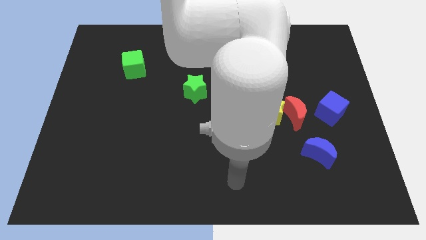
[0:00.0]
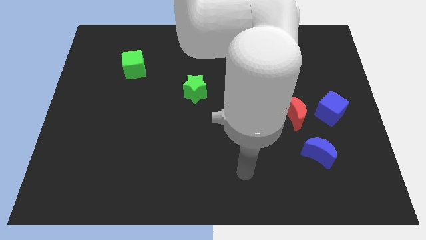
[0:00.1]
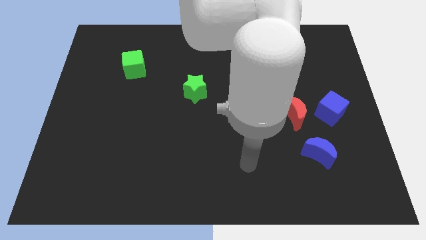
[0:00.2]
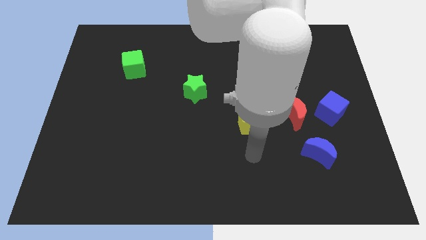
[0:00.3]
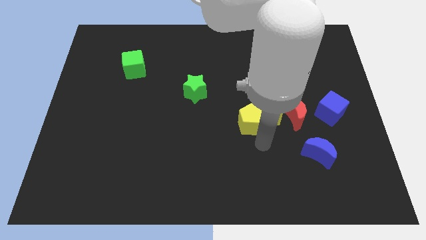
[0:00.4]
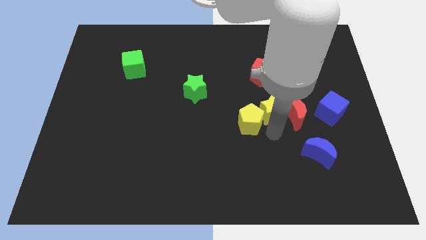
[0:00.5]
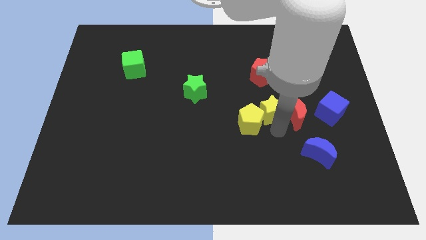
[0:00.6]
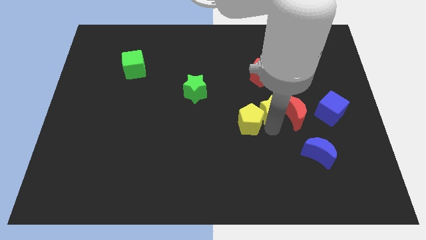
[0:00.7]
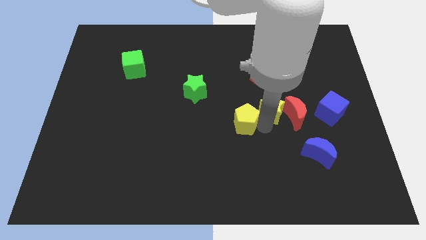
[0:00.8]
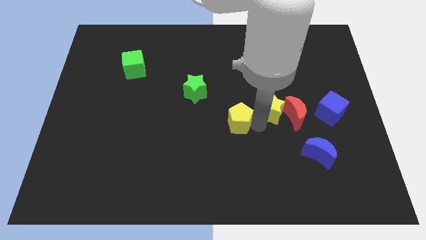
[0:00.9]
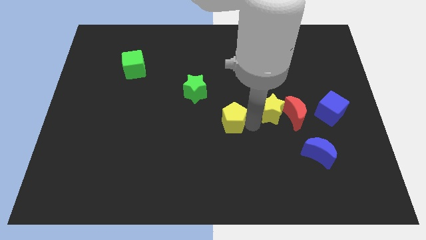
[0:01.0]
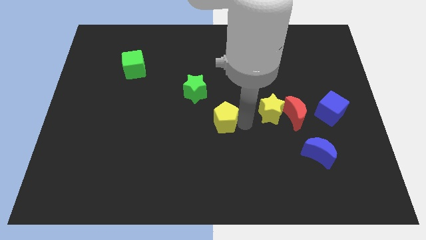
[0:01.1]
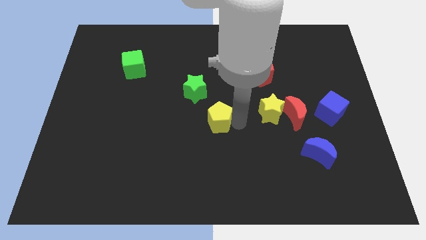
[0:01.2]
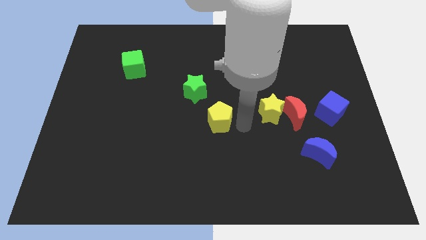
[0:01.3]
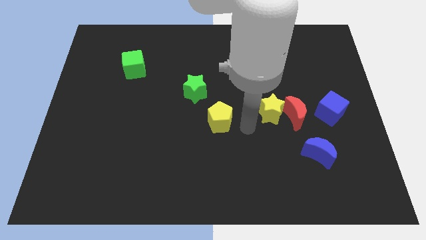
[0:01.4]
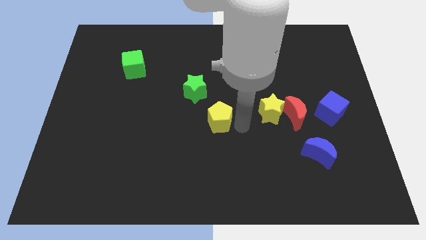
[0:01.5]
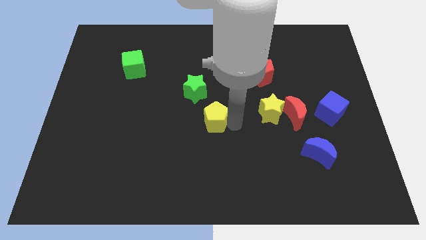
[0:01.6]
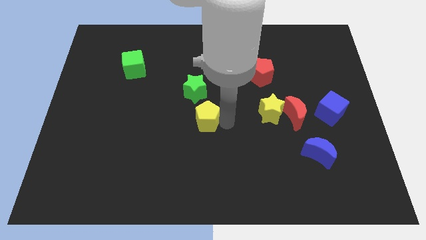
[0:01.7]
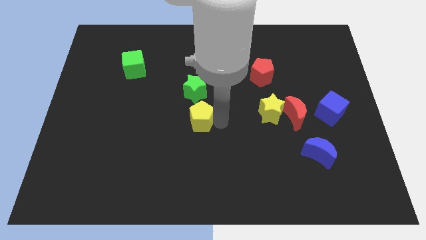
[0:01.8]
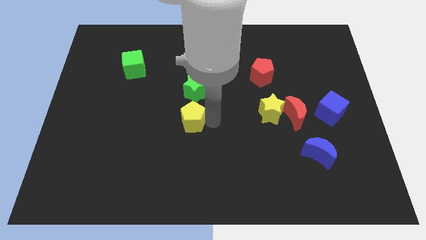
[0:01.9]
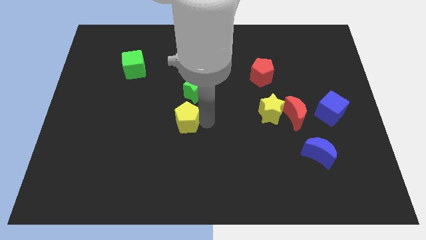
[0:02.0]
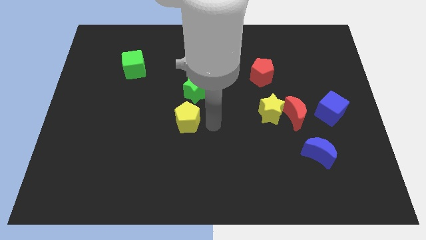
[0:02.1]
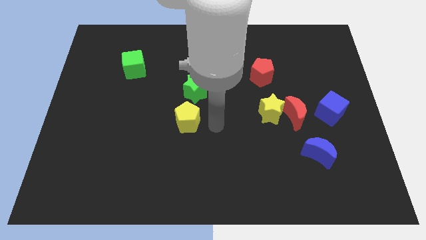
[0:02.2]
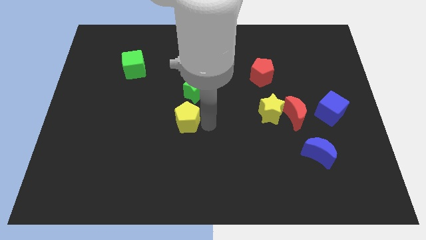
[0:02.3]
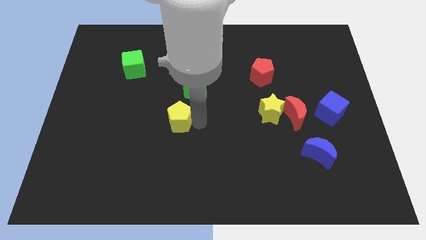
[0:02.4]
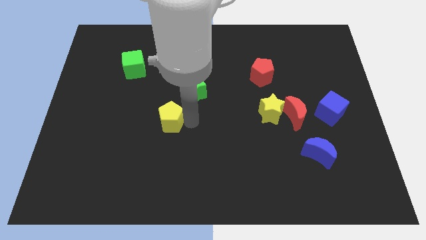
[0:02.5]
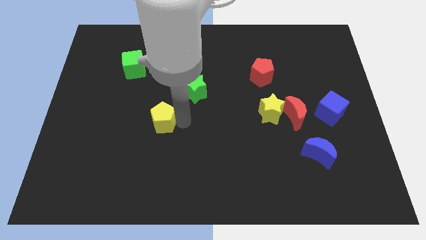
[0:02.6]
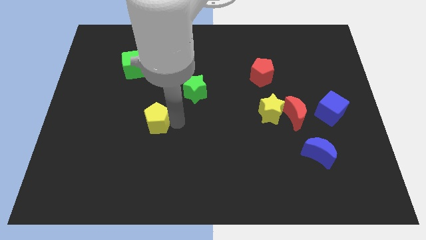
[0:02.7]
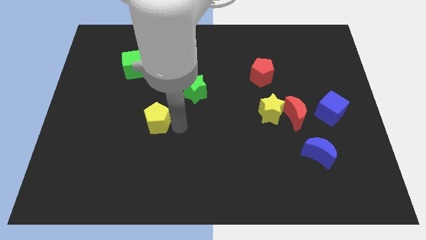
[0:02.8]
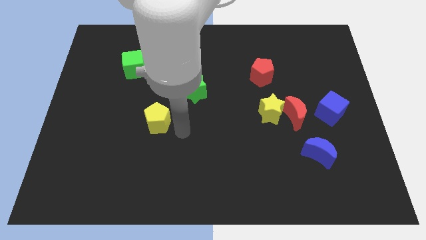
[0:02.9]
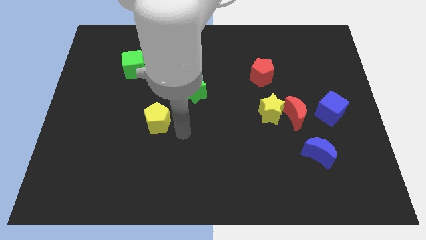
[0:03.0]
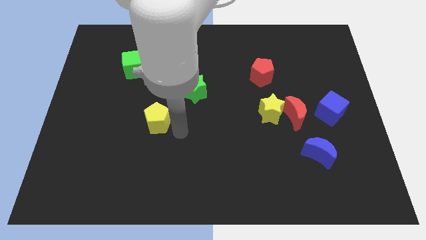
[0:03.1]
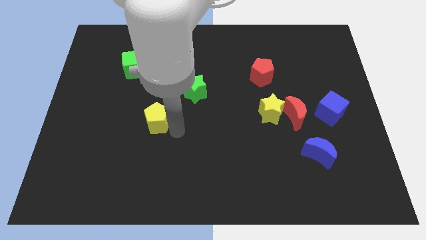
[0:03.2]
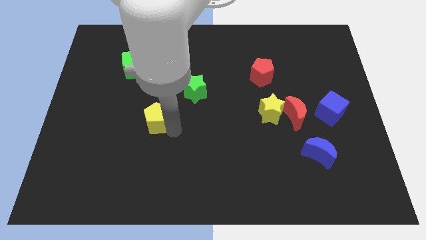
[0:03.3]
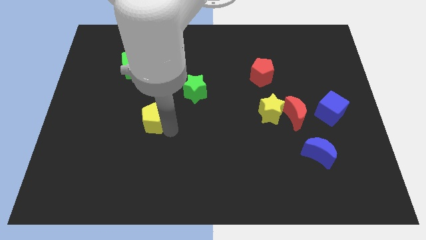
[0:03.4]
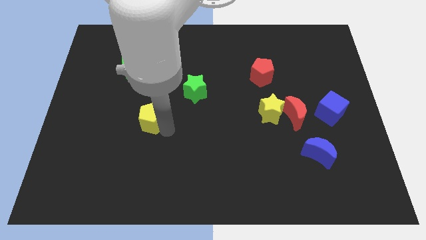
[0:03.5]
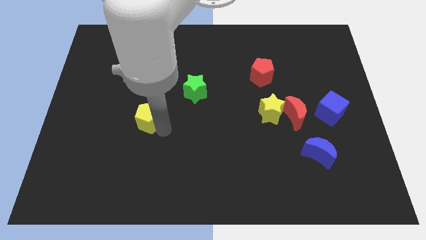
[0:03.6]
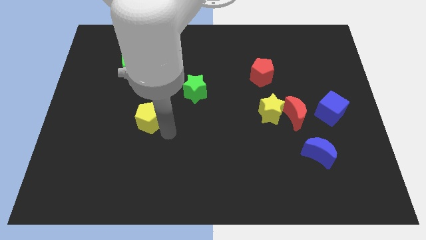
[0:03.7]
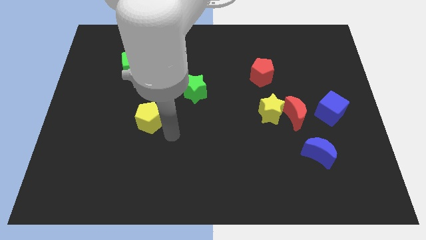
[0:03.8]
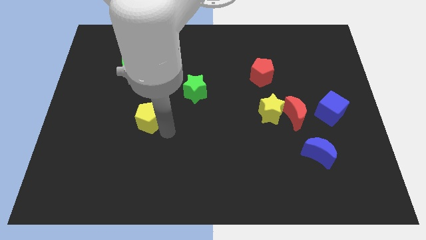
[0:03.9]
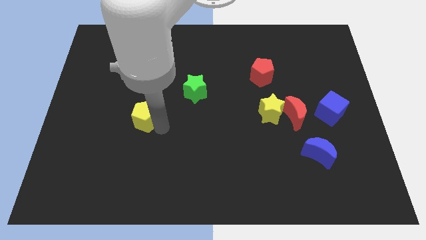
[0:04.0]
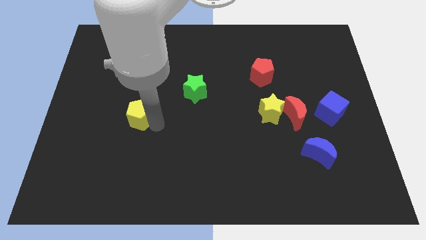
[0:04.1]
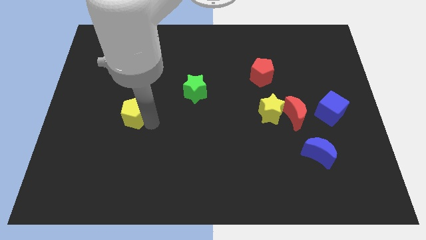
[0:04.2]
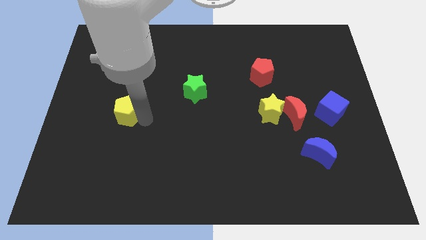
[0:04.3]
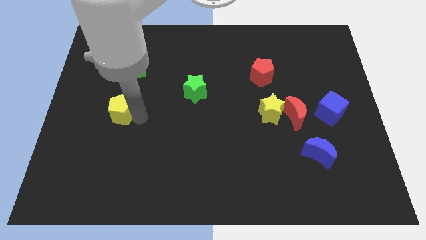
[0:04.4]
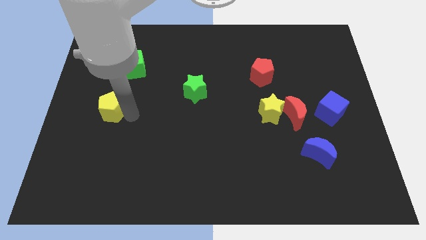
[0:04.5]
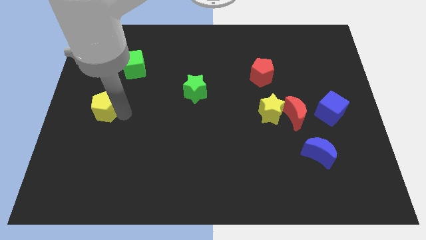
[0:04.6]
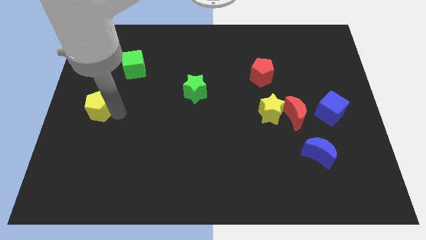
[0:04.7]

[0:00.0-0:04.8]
push the yellow pentagon to the left side

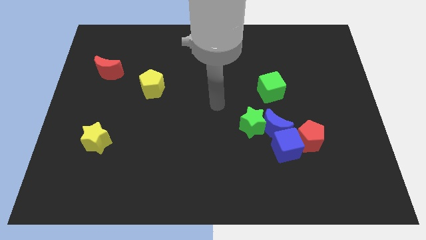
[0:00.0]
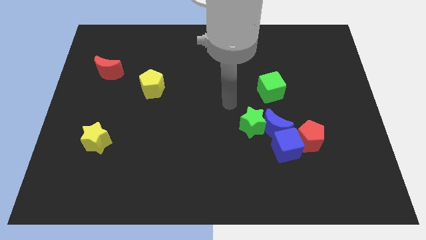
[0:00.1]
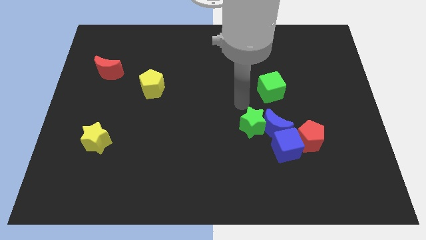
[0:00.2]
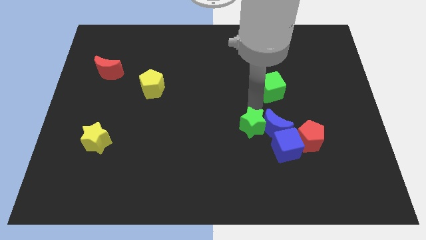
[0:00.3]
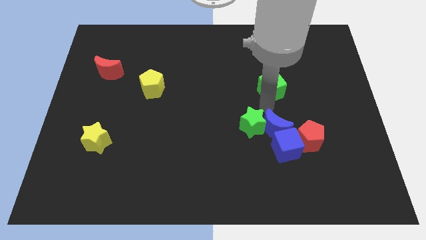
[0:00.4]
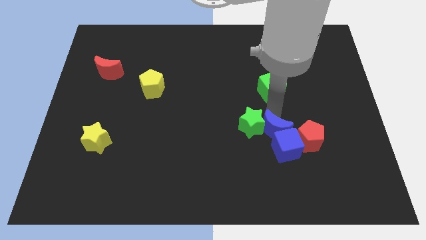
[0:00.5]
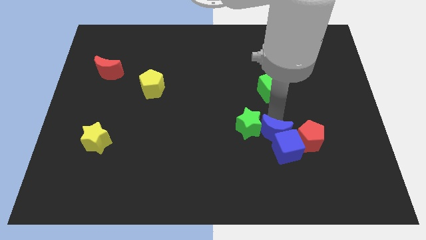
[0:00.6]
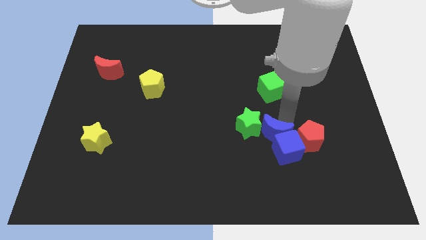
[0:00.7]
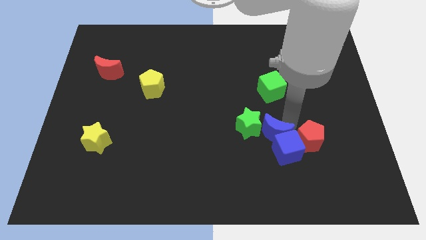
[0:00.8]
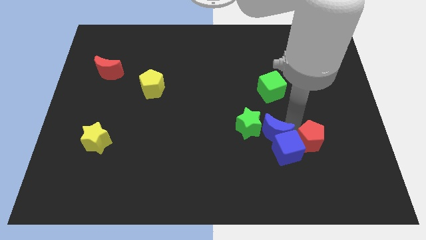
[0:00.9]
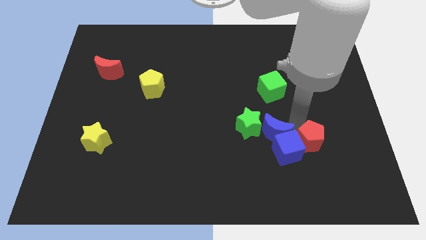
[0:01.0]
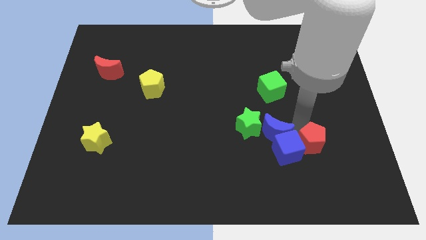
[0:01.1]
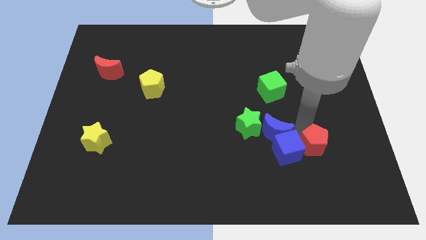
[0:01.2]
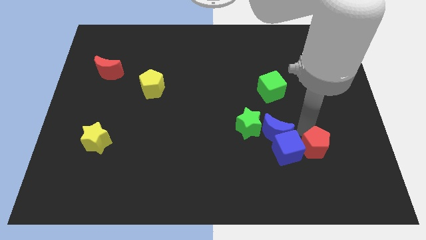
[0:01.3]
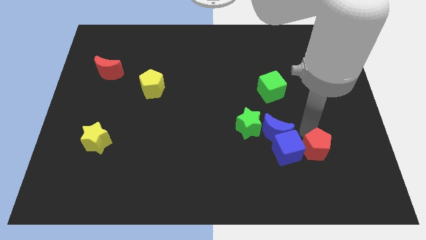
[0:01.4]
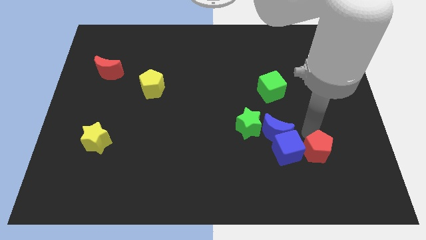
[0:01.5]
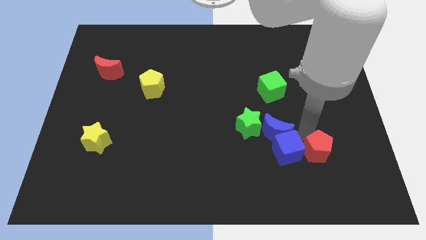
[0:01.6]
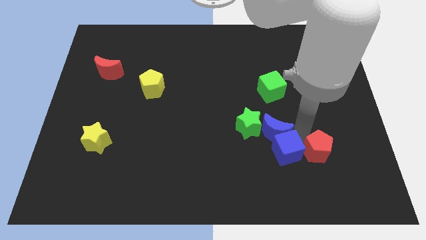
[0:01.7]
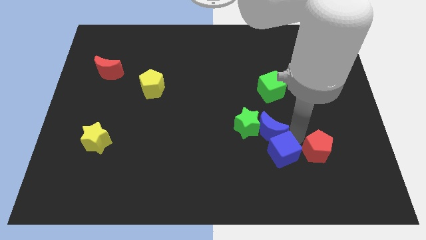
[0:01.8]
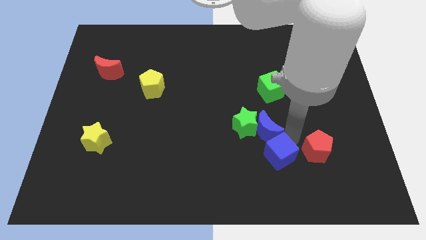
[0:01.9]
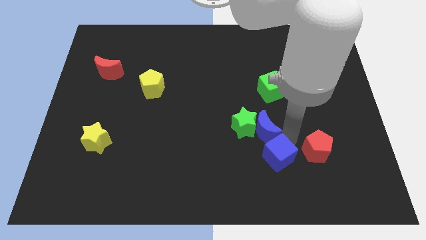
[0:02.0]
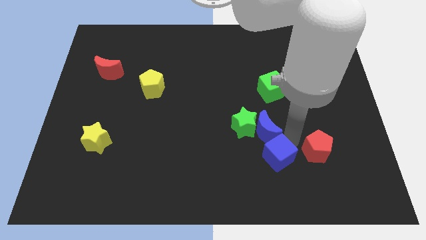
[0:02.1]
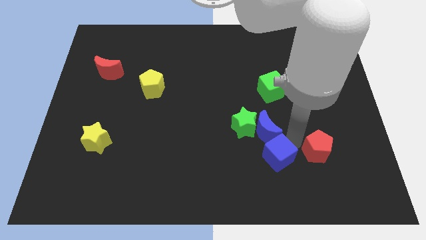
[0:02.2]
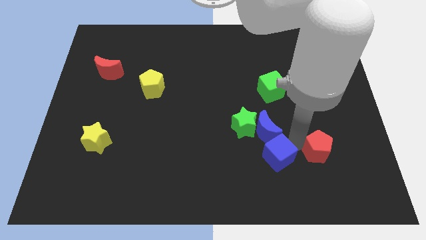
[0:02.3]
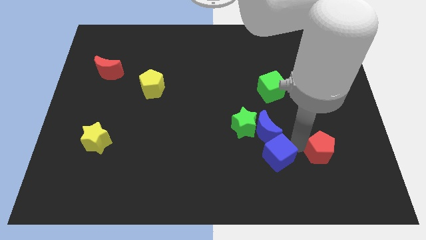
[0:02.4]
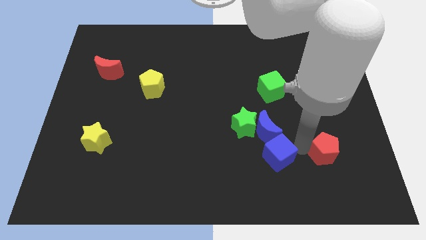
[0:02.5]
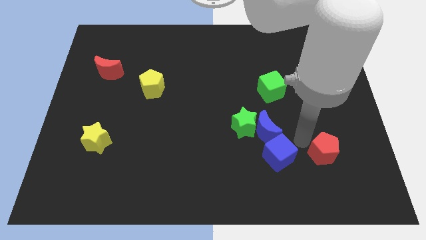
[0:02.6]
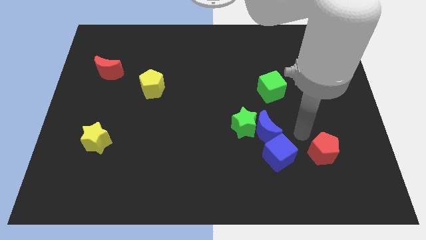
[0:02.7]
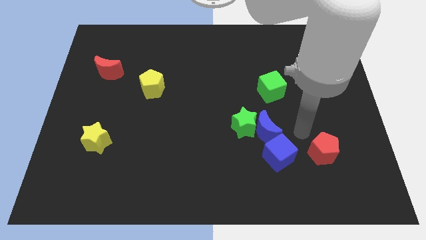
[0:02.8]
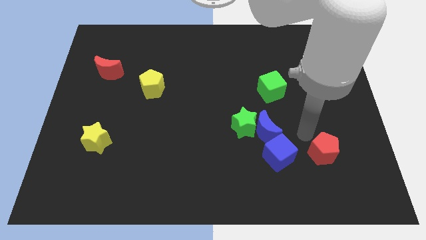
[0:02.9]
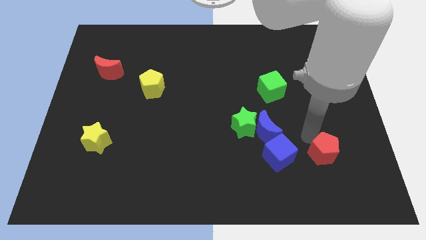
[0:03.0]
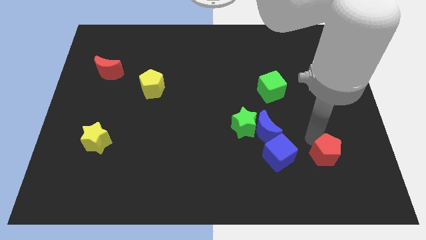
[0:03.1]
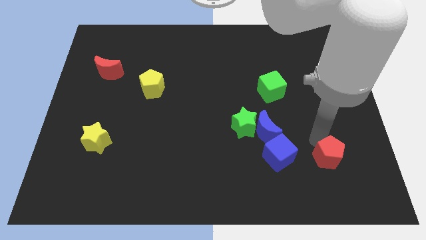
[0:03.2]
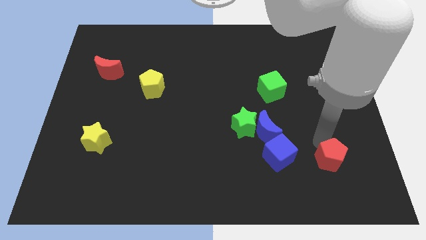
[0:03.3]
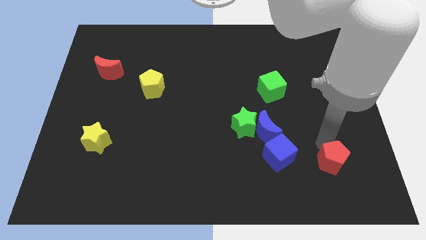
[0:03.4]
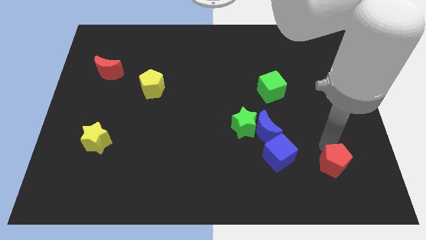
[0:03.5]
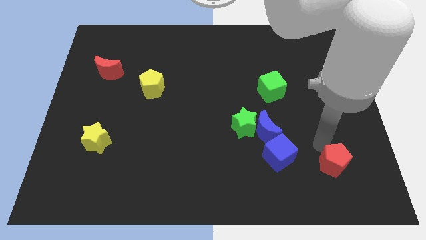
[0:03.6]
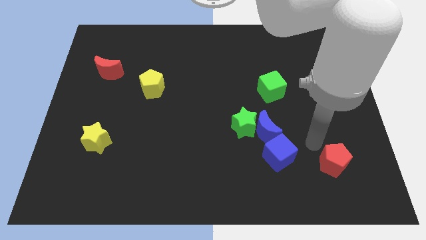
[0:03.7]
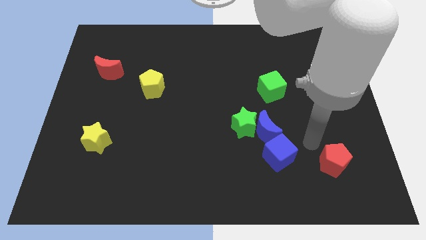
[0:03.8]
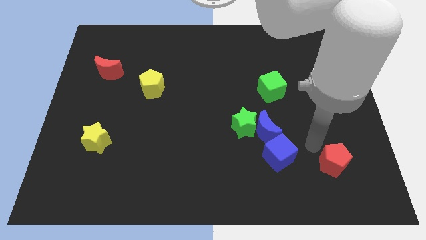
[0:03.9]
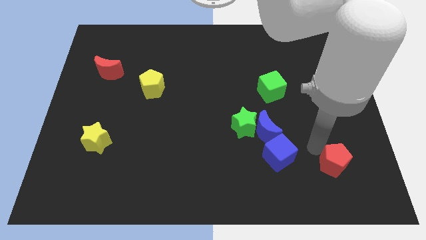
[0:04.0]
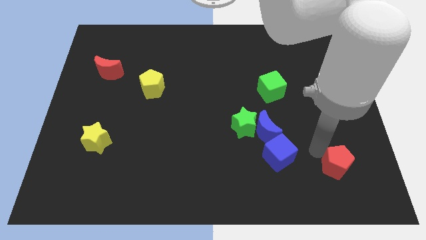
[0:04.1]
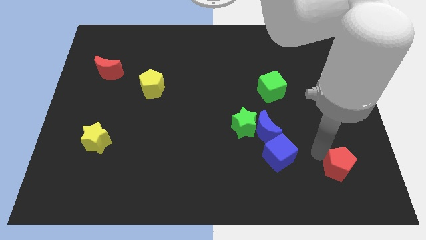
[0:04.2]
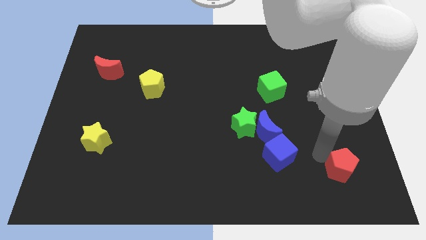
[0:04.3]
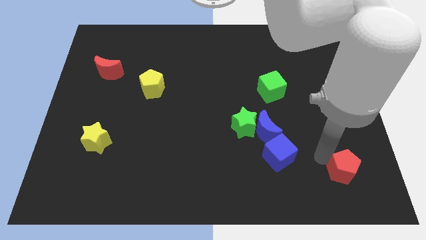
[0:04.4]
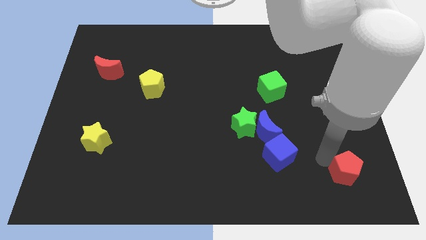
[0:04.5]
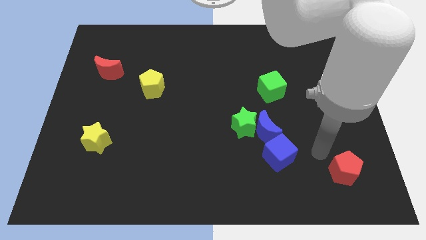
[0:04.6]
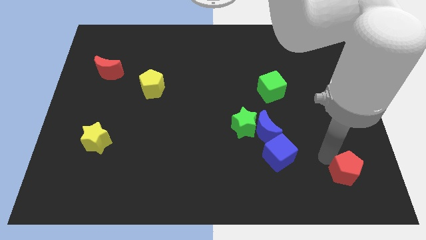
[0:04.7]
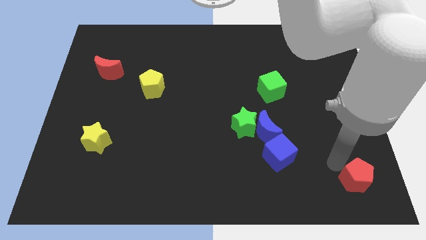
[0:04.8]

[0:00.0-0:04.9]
push the red pentagon to the bottom right
